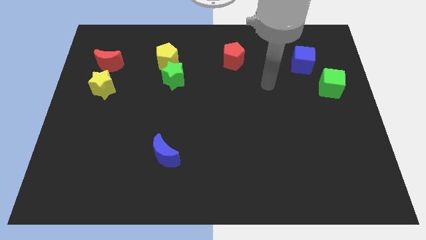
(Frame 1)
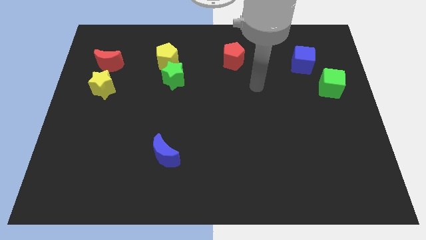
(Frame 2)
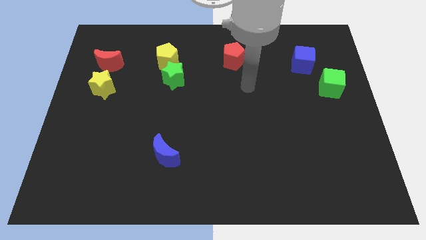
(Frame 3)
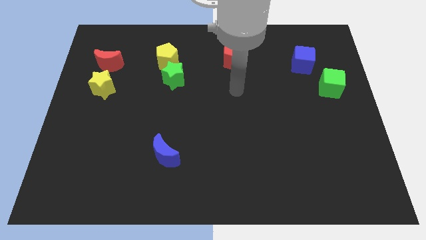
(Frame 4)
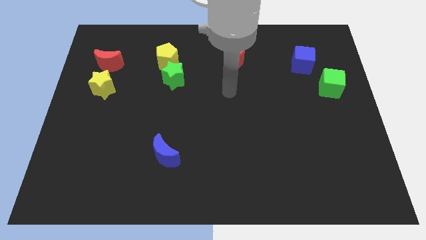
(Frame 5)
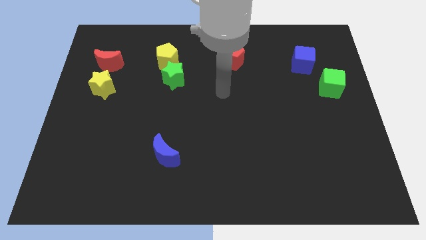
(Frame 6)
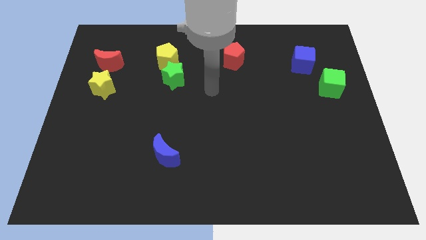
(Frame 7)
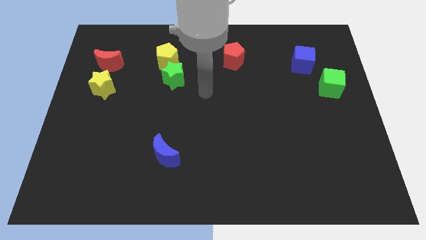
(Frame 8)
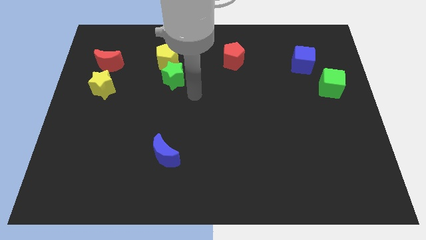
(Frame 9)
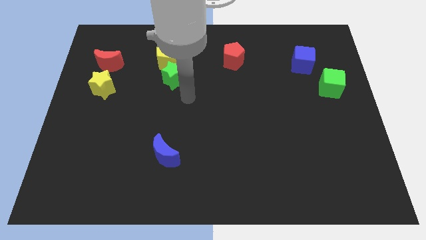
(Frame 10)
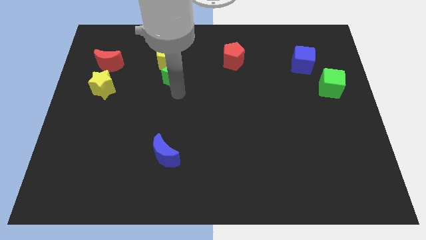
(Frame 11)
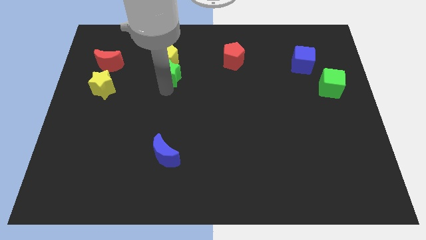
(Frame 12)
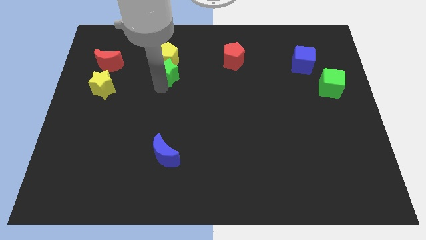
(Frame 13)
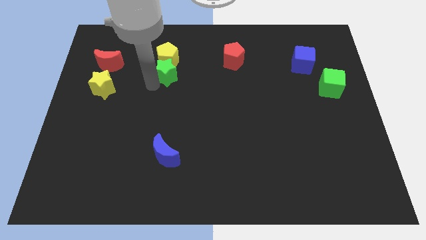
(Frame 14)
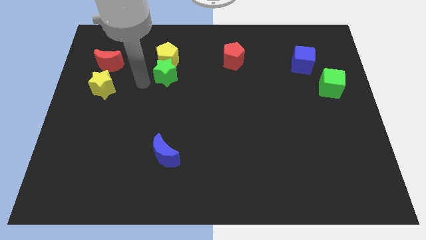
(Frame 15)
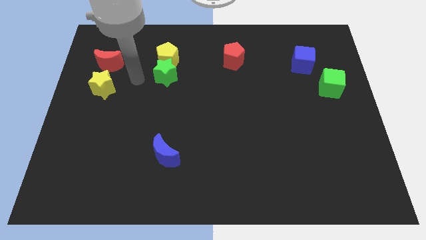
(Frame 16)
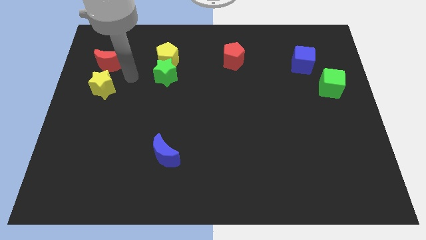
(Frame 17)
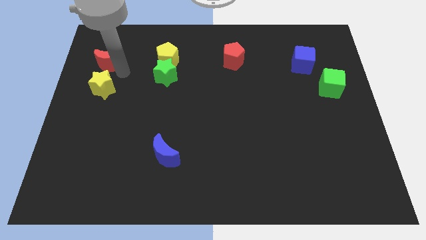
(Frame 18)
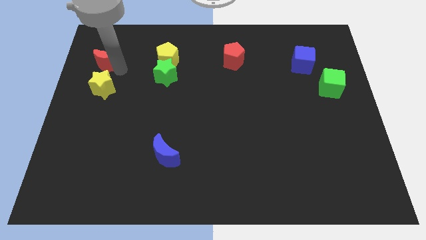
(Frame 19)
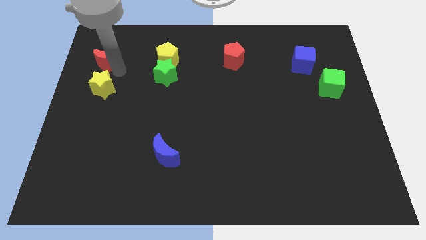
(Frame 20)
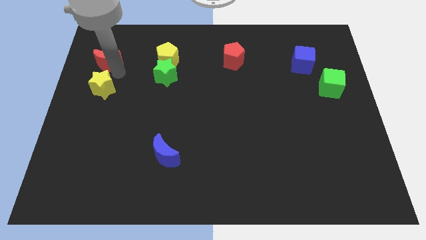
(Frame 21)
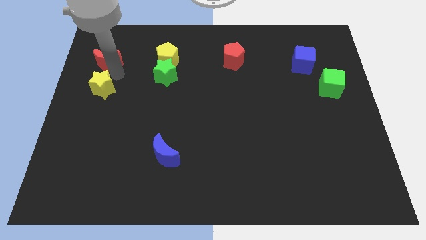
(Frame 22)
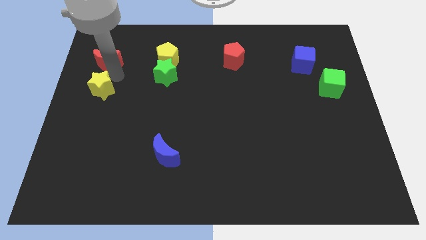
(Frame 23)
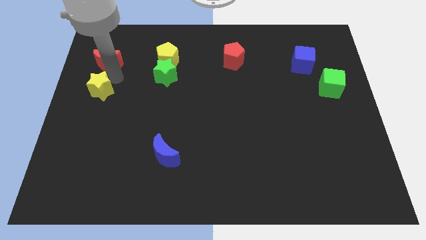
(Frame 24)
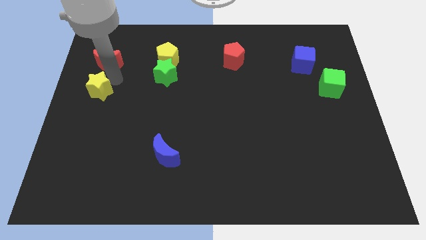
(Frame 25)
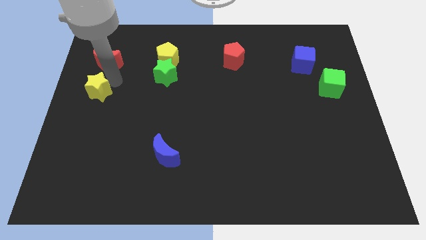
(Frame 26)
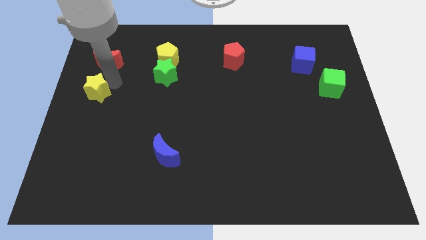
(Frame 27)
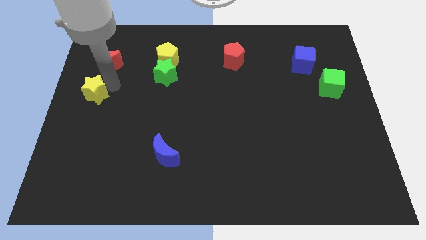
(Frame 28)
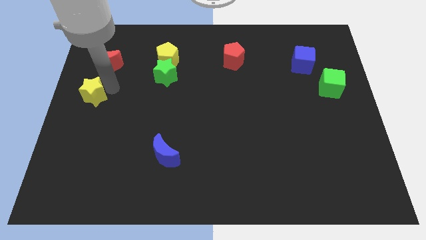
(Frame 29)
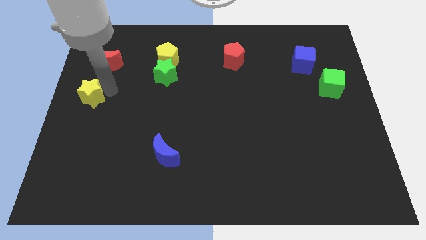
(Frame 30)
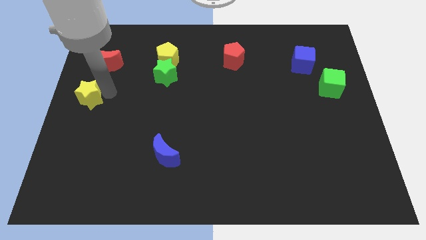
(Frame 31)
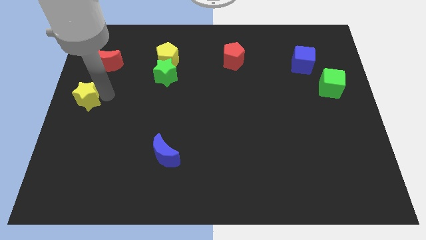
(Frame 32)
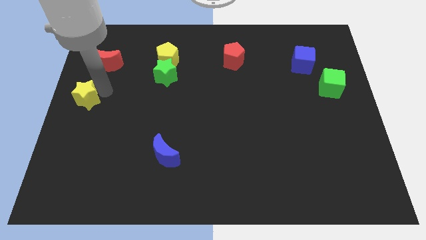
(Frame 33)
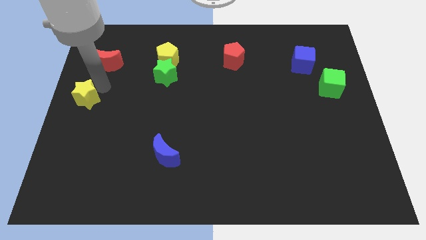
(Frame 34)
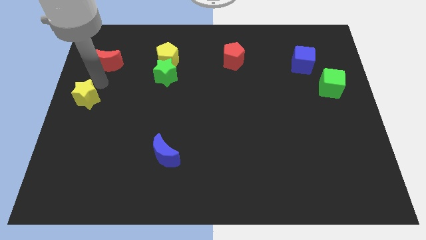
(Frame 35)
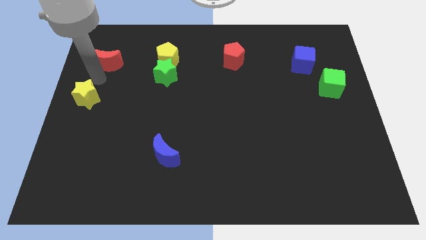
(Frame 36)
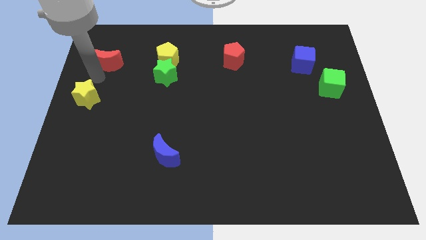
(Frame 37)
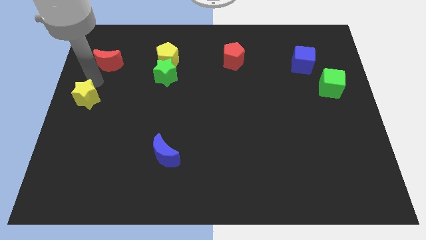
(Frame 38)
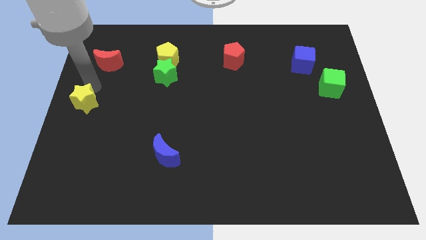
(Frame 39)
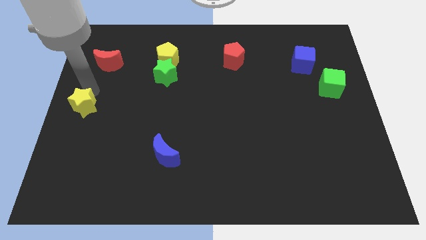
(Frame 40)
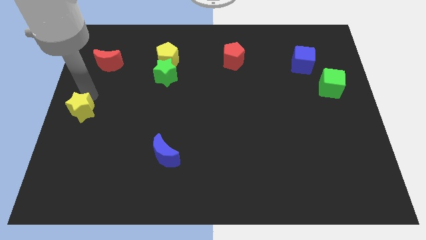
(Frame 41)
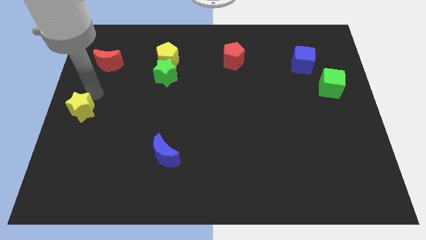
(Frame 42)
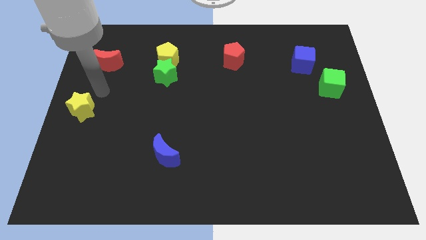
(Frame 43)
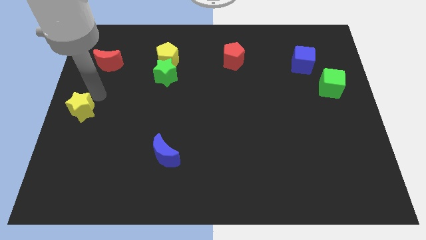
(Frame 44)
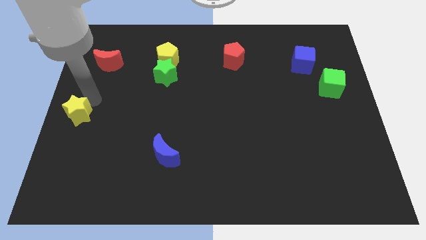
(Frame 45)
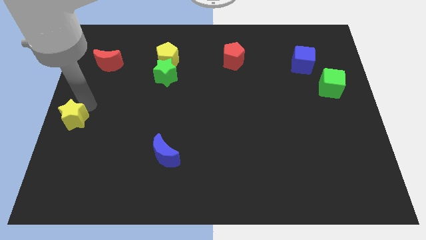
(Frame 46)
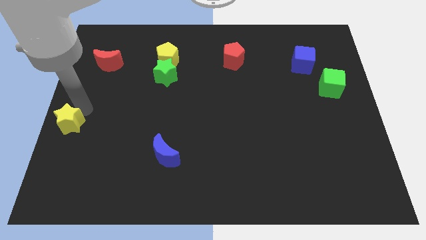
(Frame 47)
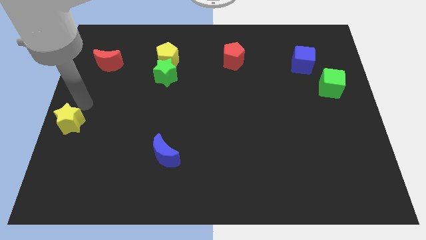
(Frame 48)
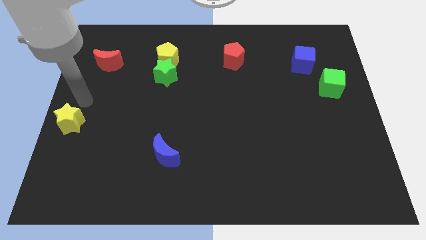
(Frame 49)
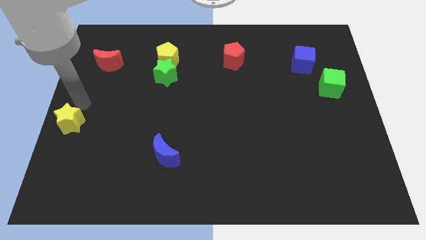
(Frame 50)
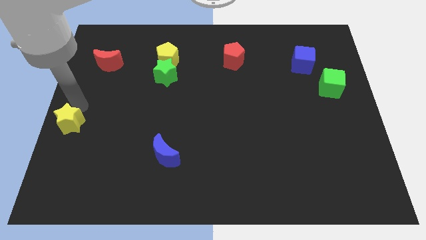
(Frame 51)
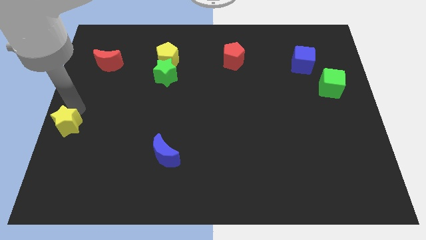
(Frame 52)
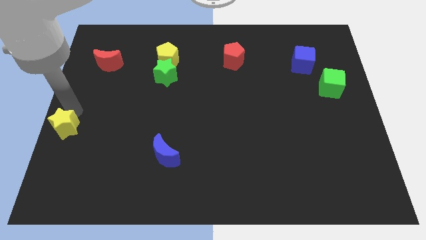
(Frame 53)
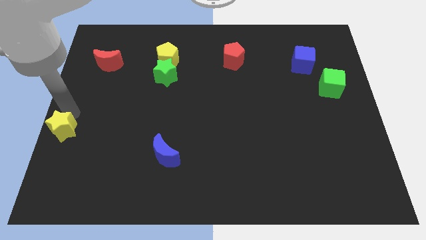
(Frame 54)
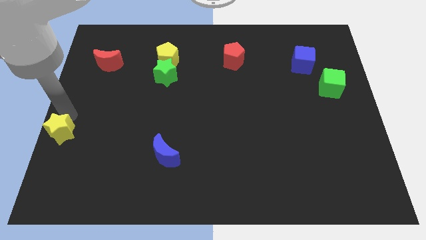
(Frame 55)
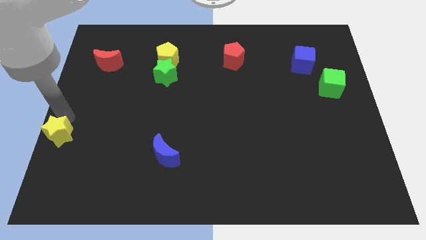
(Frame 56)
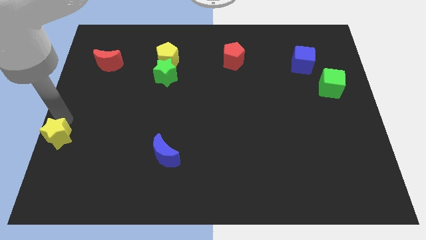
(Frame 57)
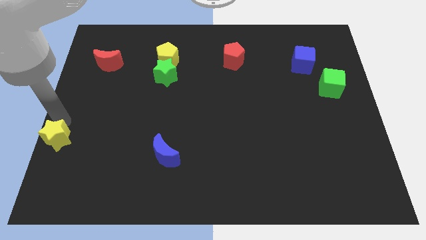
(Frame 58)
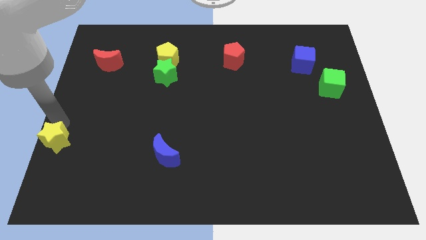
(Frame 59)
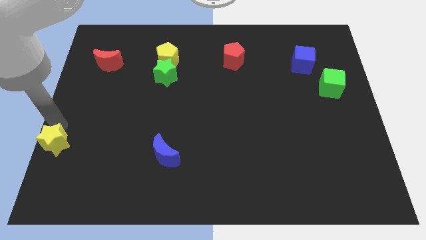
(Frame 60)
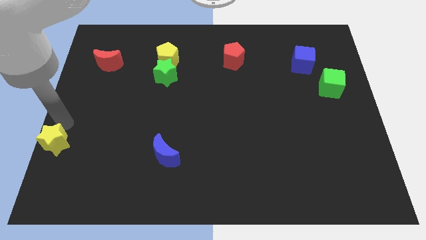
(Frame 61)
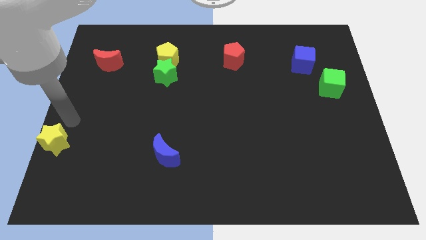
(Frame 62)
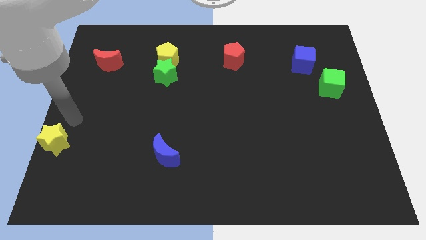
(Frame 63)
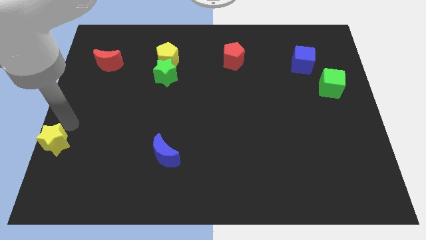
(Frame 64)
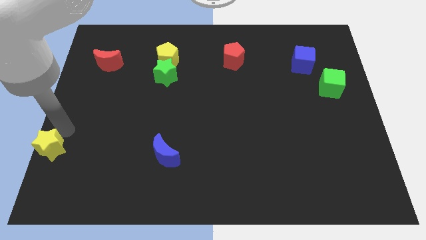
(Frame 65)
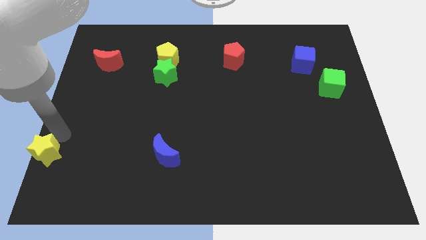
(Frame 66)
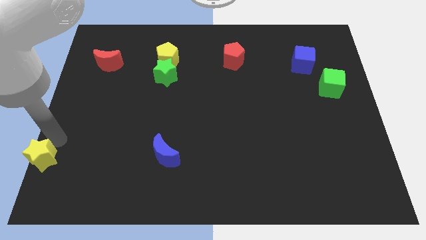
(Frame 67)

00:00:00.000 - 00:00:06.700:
put the yellow star to the bottom left corner

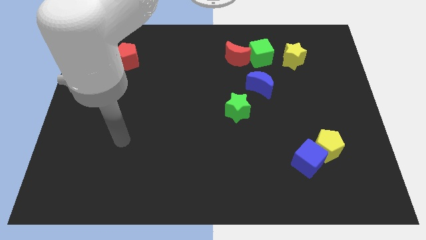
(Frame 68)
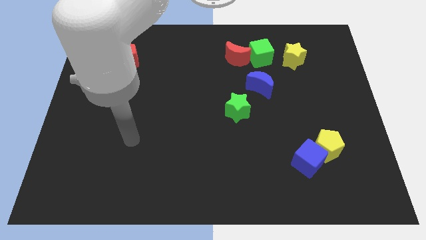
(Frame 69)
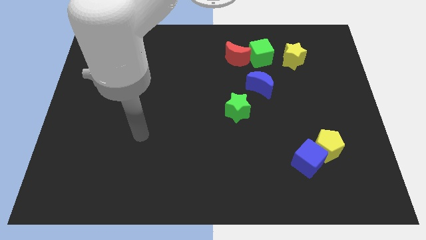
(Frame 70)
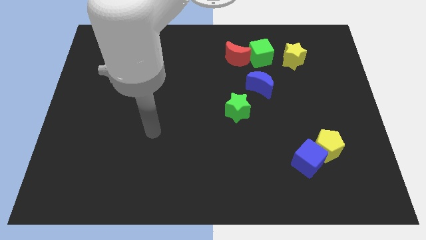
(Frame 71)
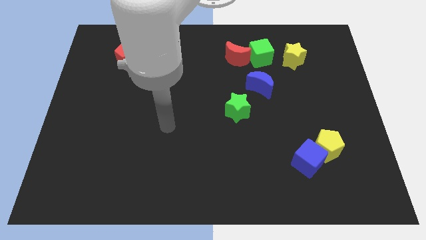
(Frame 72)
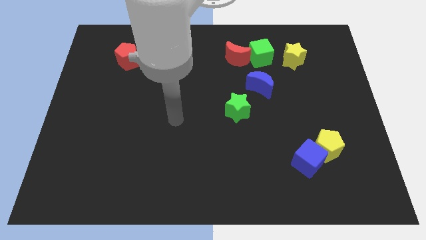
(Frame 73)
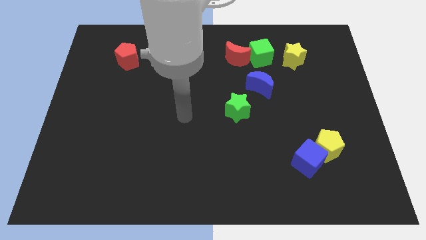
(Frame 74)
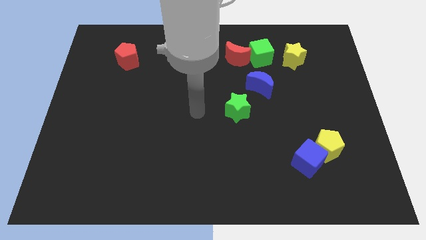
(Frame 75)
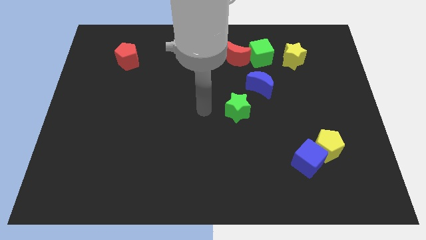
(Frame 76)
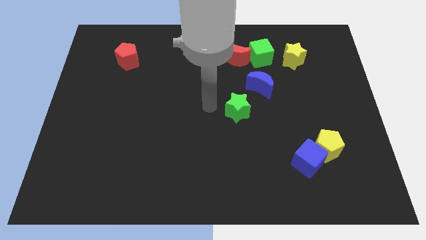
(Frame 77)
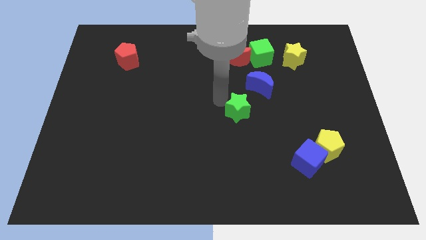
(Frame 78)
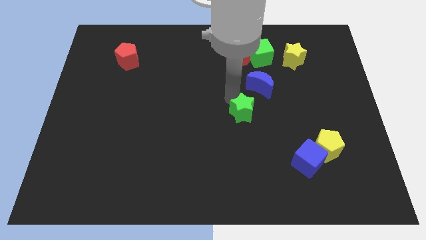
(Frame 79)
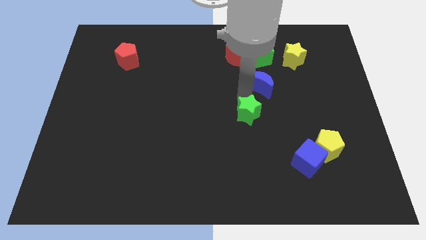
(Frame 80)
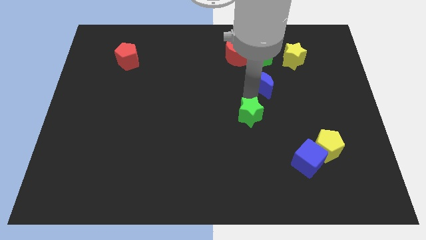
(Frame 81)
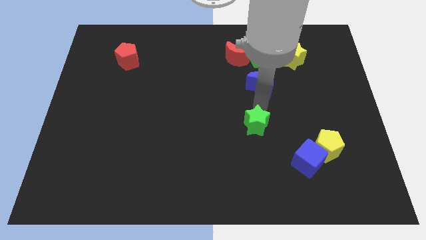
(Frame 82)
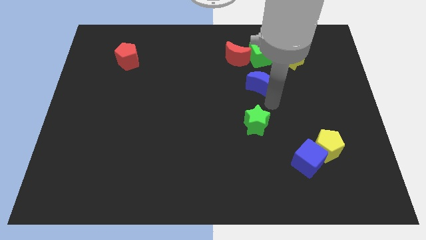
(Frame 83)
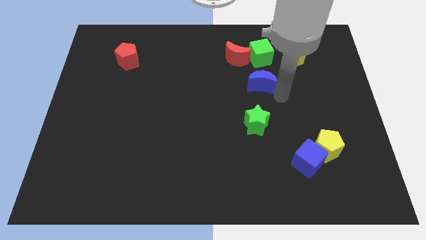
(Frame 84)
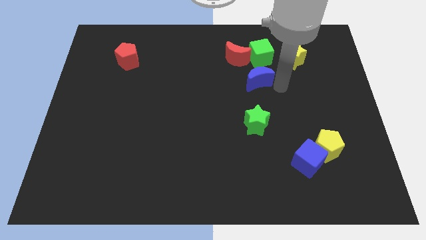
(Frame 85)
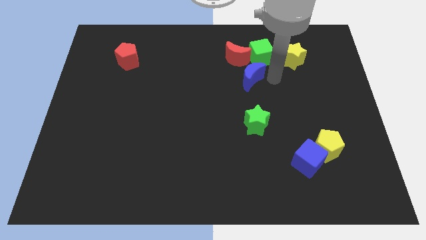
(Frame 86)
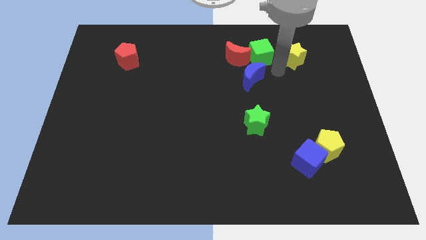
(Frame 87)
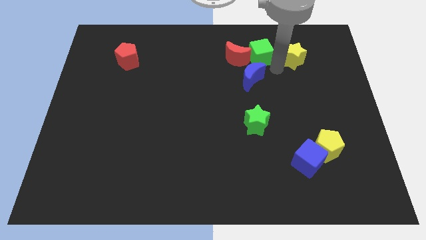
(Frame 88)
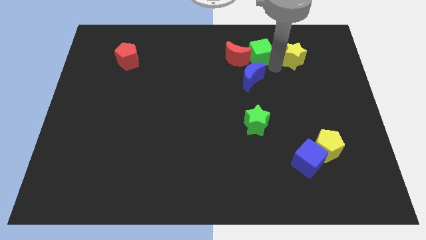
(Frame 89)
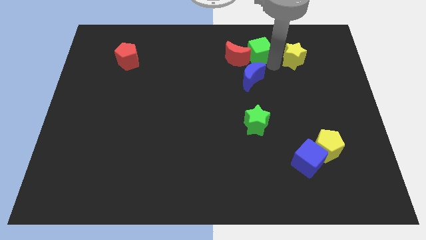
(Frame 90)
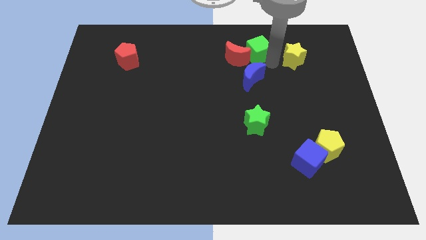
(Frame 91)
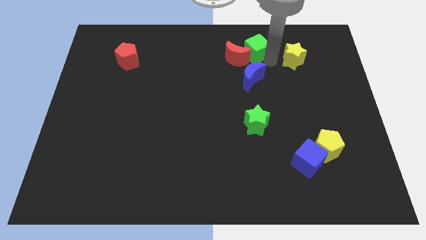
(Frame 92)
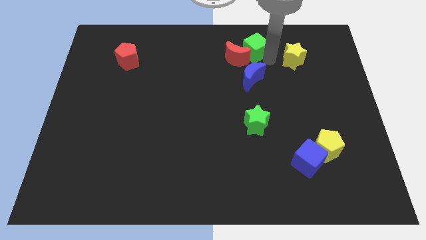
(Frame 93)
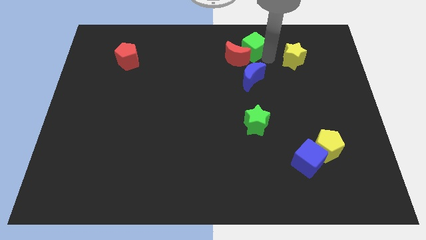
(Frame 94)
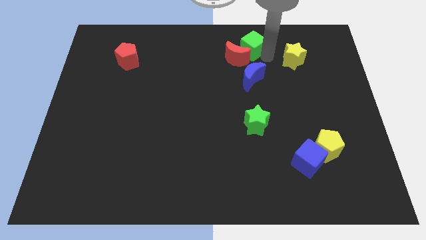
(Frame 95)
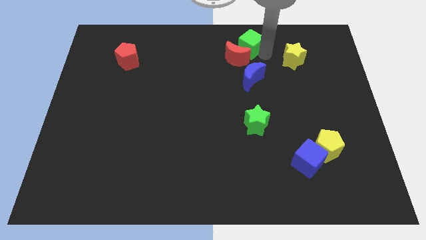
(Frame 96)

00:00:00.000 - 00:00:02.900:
push the green cube to the top
